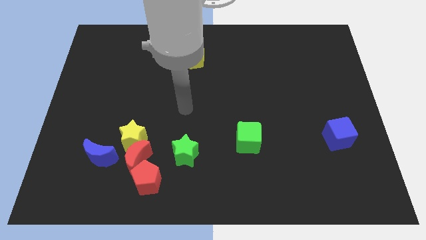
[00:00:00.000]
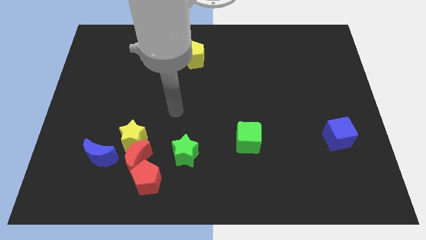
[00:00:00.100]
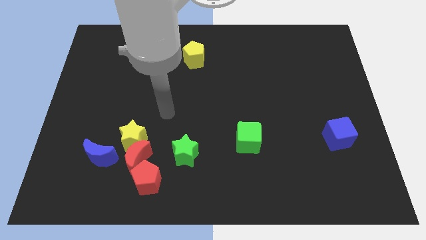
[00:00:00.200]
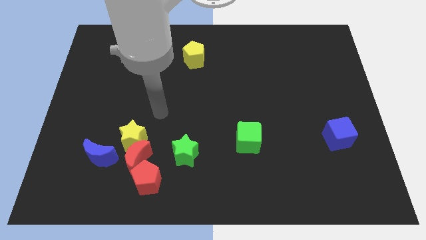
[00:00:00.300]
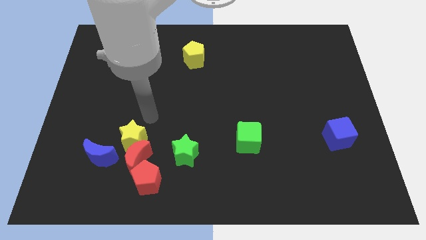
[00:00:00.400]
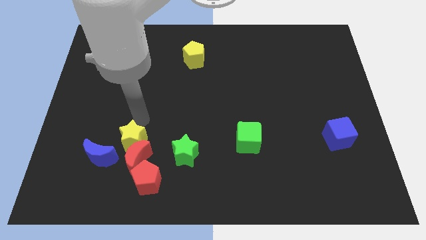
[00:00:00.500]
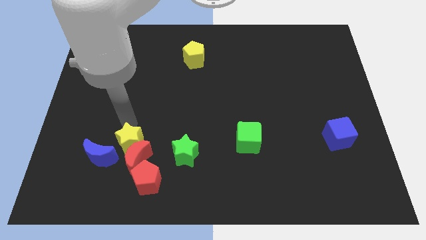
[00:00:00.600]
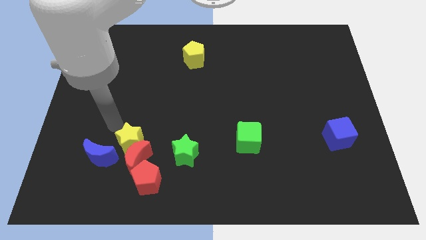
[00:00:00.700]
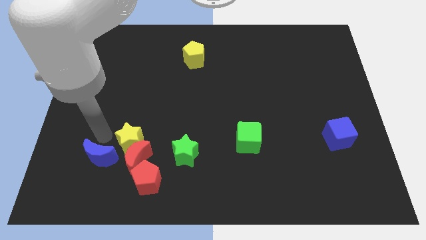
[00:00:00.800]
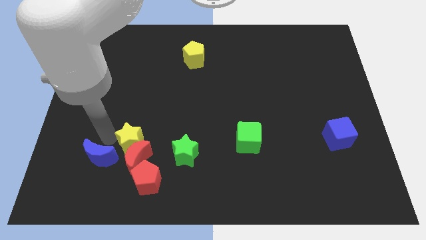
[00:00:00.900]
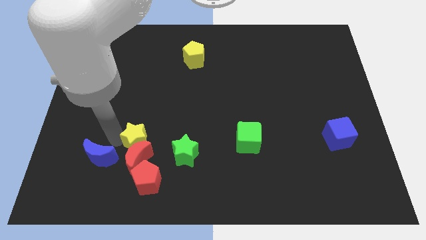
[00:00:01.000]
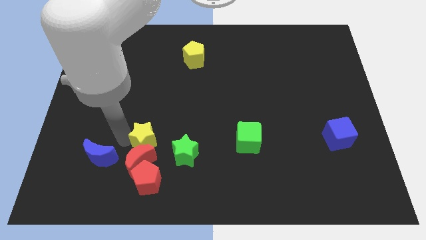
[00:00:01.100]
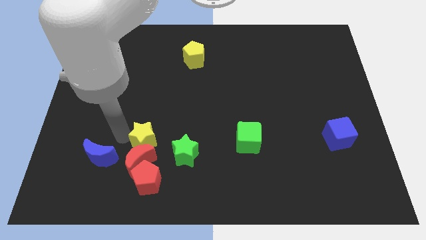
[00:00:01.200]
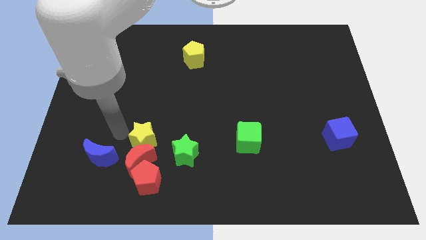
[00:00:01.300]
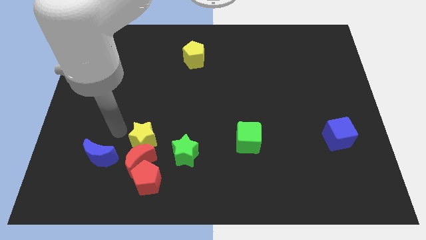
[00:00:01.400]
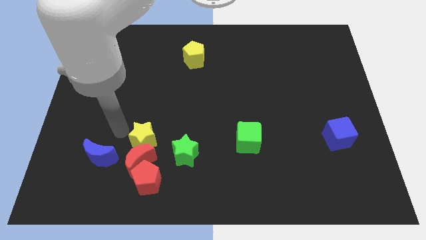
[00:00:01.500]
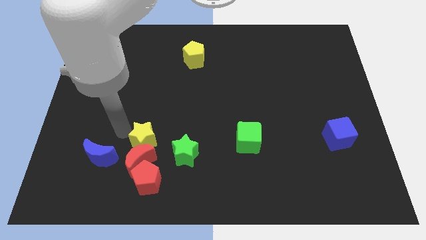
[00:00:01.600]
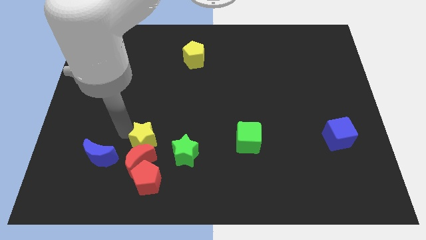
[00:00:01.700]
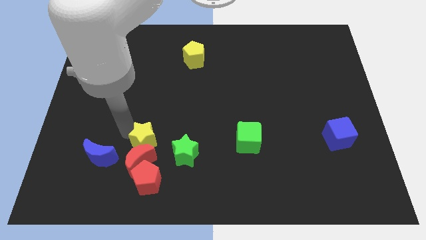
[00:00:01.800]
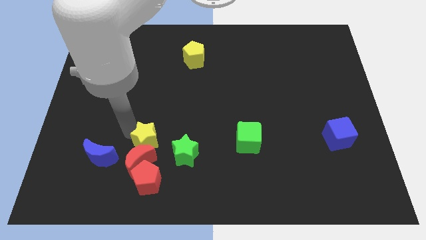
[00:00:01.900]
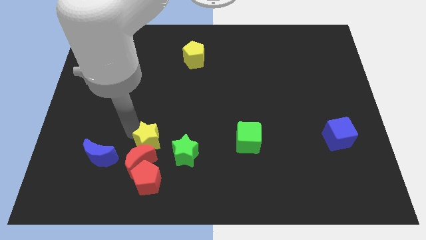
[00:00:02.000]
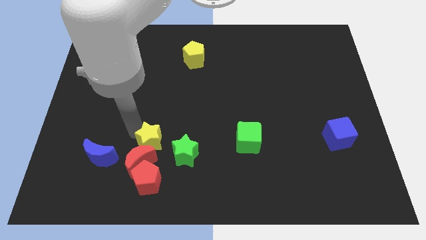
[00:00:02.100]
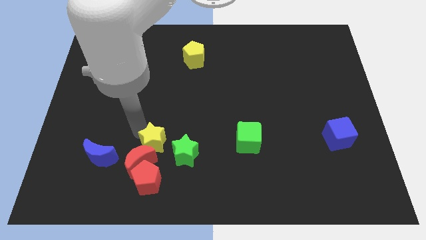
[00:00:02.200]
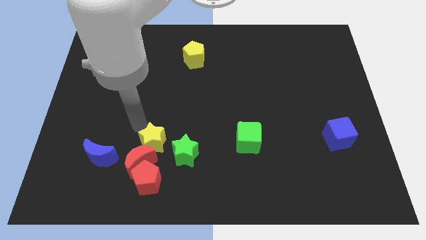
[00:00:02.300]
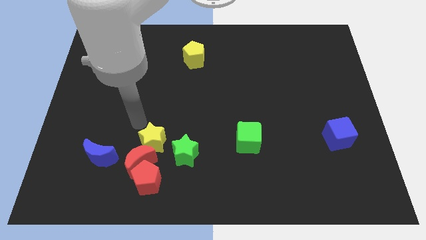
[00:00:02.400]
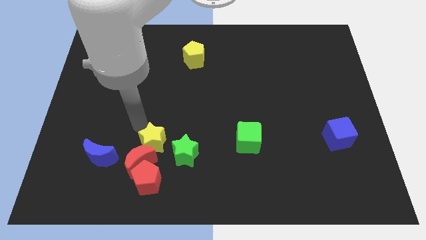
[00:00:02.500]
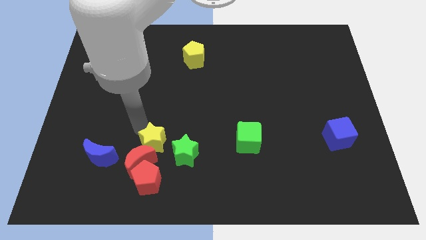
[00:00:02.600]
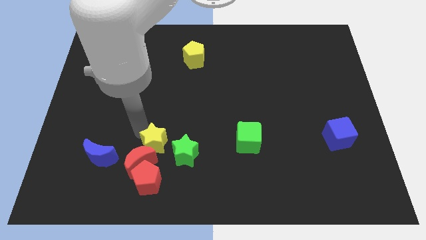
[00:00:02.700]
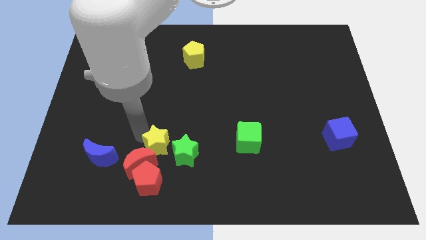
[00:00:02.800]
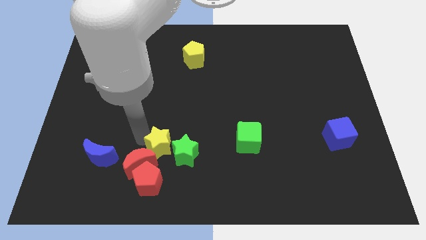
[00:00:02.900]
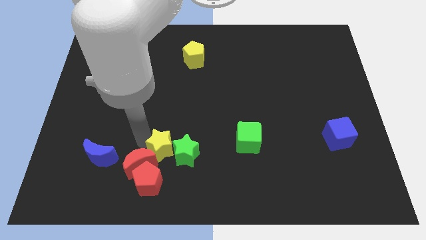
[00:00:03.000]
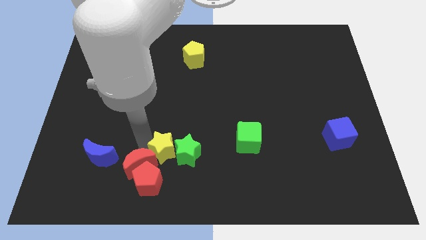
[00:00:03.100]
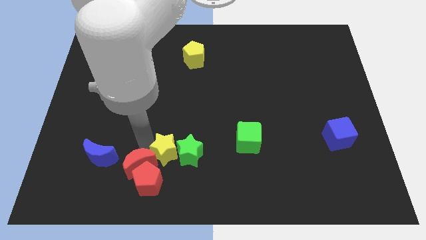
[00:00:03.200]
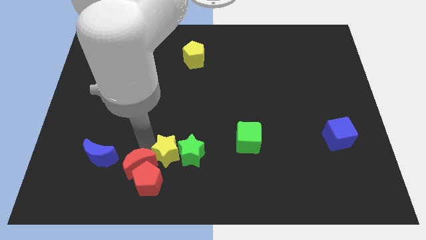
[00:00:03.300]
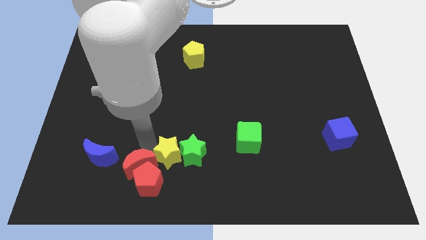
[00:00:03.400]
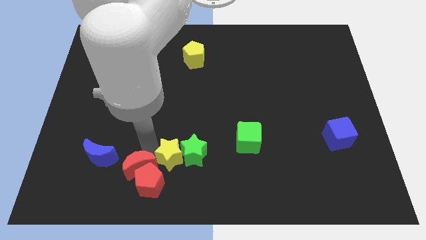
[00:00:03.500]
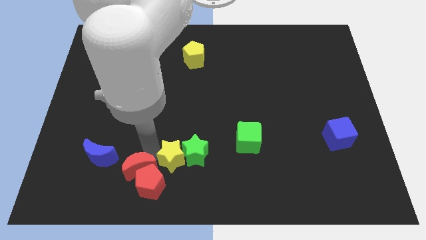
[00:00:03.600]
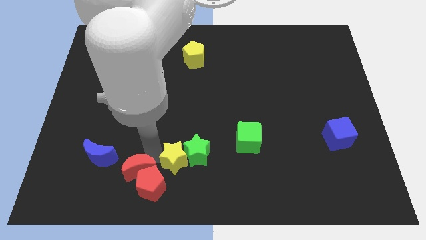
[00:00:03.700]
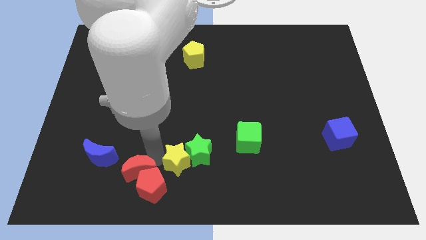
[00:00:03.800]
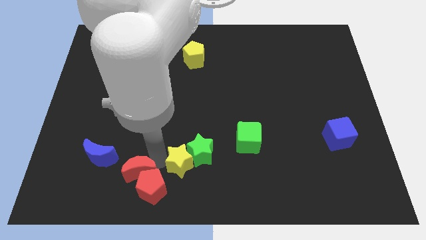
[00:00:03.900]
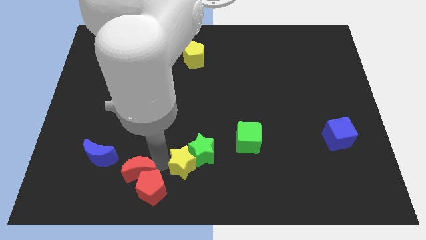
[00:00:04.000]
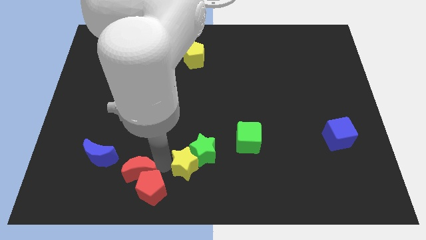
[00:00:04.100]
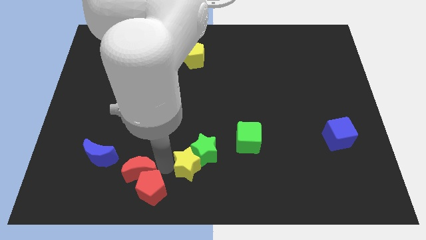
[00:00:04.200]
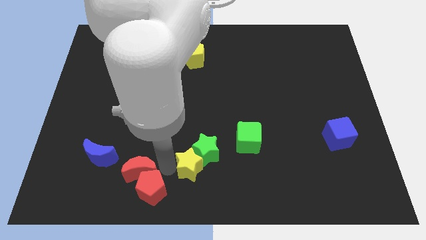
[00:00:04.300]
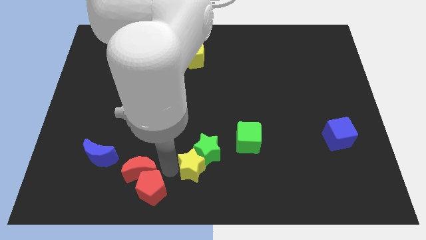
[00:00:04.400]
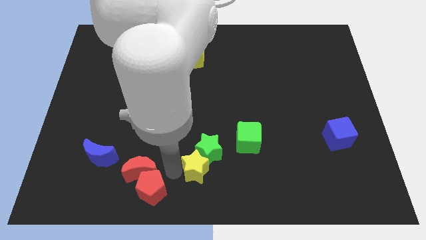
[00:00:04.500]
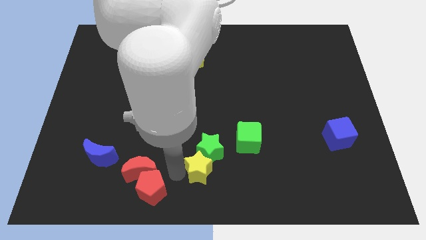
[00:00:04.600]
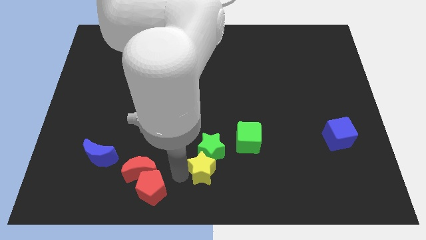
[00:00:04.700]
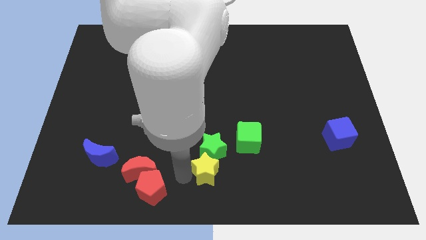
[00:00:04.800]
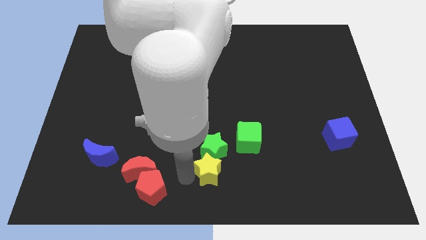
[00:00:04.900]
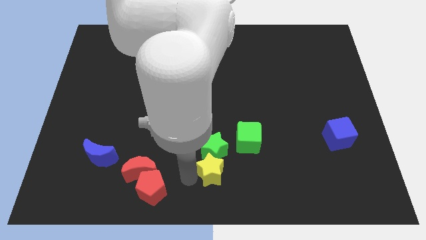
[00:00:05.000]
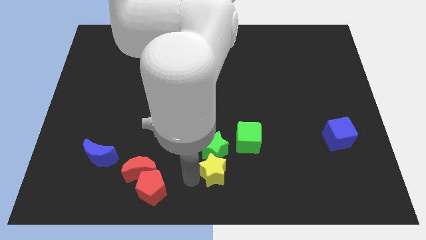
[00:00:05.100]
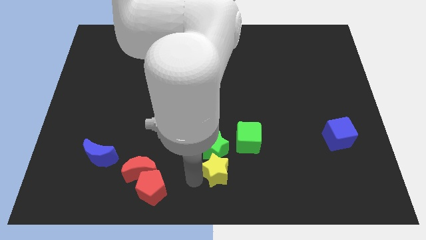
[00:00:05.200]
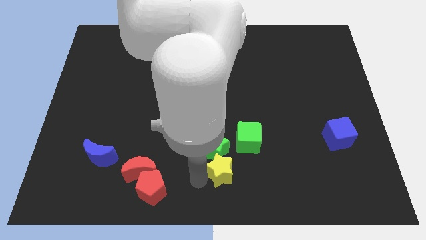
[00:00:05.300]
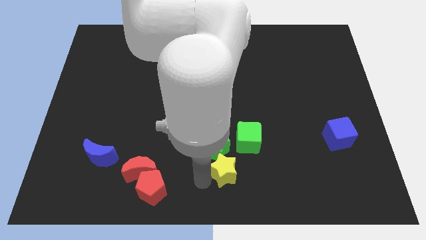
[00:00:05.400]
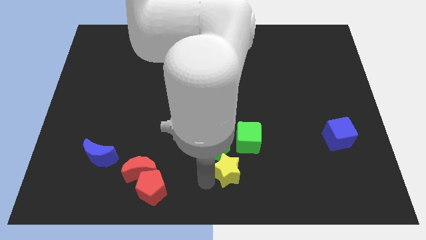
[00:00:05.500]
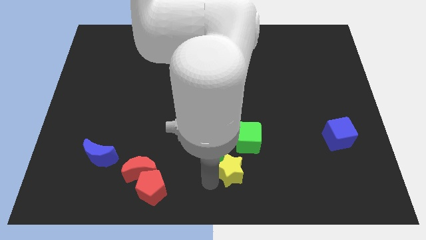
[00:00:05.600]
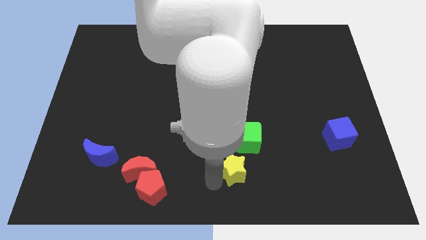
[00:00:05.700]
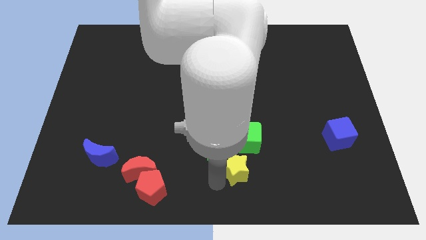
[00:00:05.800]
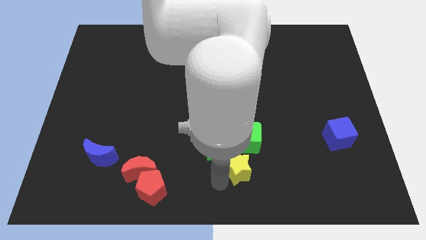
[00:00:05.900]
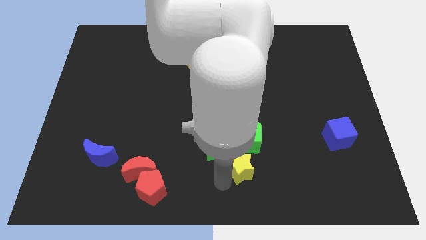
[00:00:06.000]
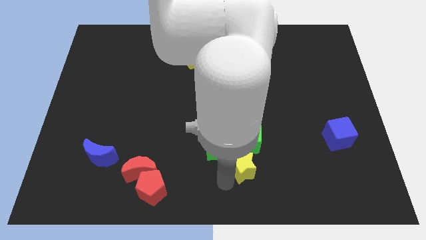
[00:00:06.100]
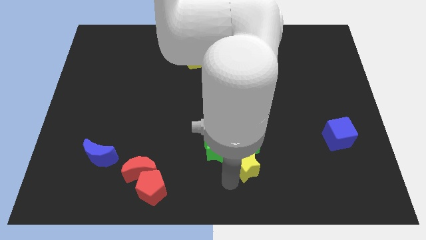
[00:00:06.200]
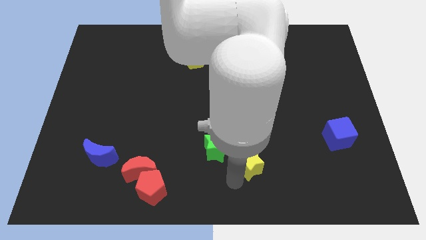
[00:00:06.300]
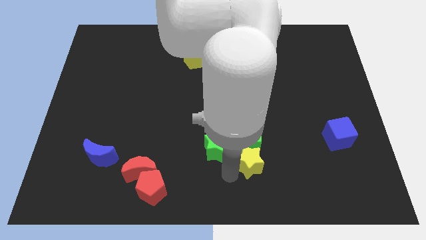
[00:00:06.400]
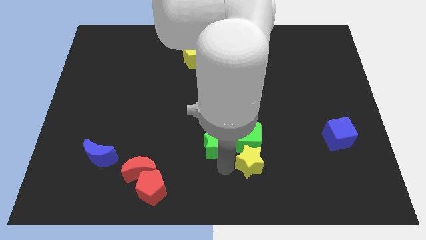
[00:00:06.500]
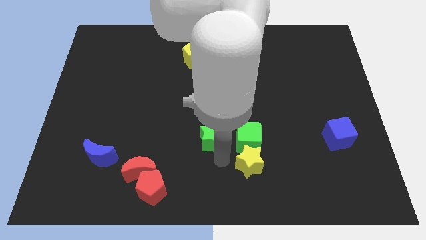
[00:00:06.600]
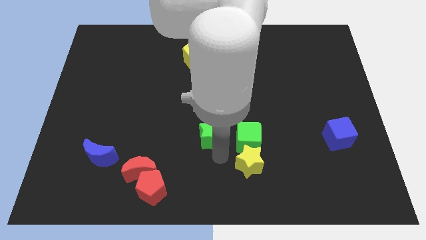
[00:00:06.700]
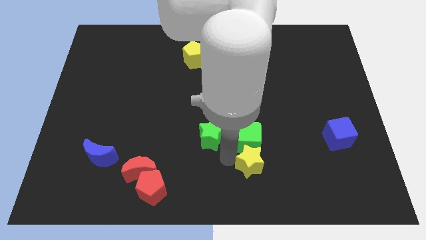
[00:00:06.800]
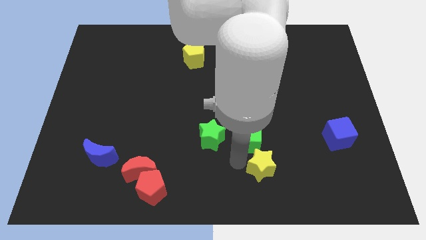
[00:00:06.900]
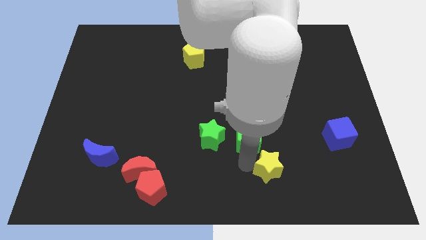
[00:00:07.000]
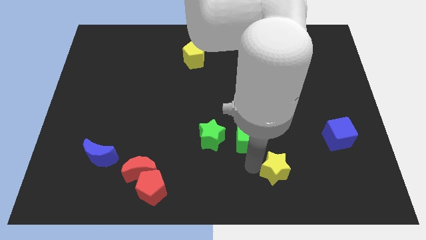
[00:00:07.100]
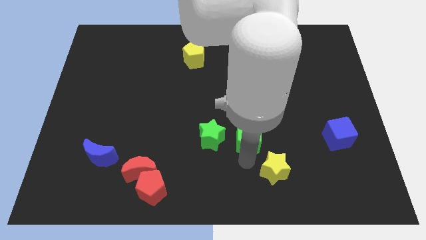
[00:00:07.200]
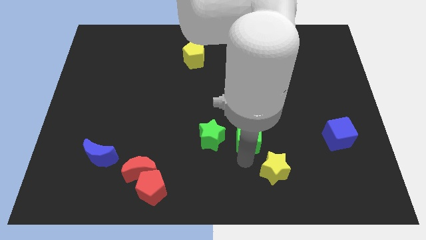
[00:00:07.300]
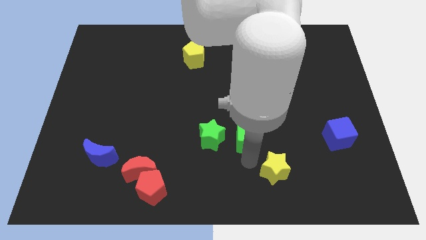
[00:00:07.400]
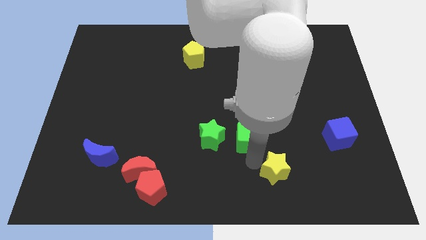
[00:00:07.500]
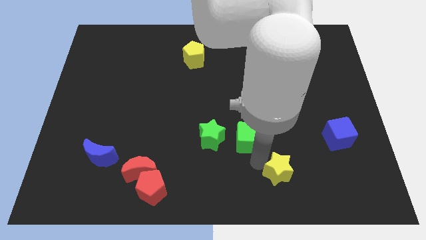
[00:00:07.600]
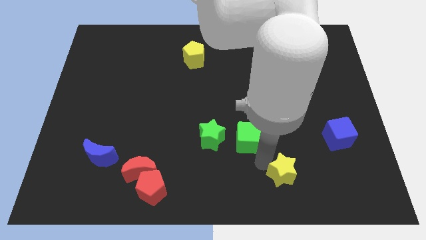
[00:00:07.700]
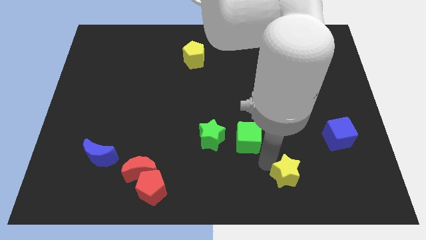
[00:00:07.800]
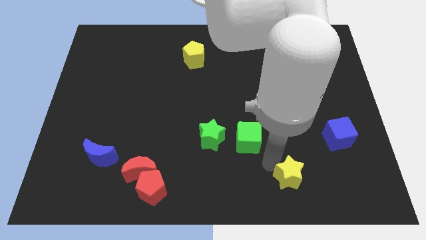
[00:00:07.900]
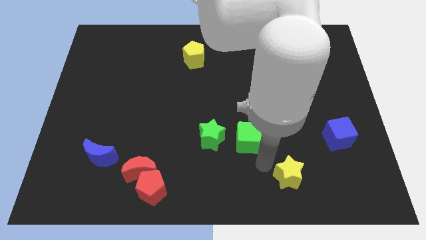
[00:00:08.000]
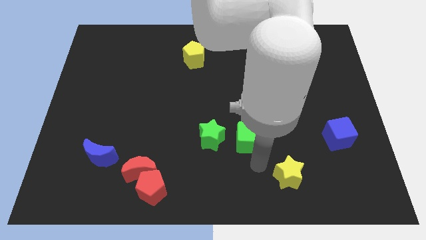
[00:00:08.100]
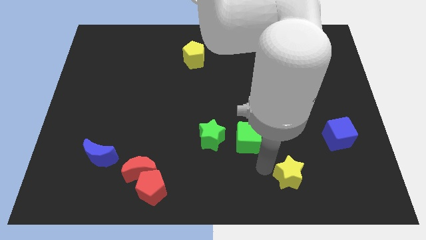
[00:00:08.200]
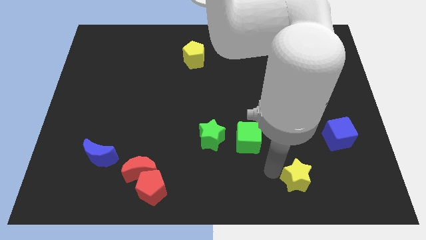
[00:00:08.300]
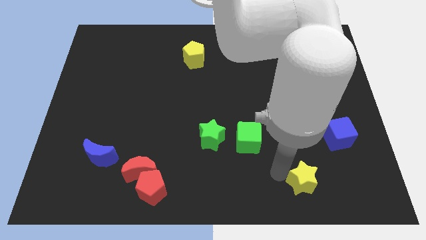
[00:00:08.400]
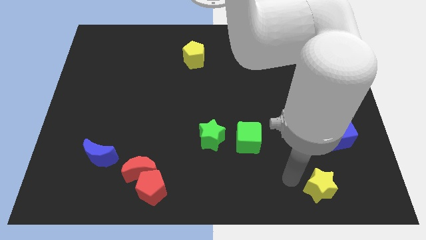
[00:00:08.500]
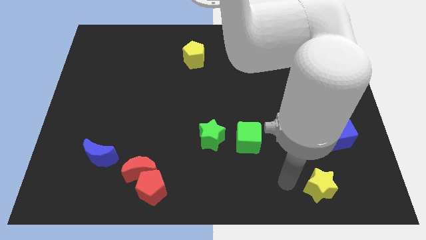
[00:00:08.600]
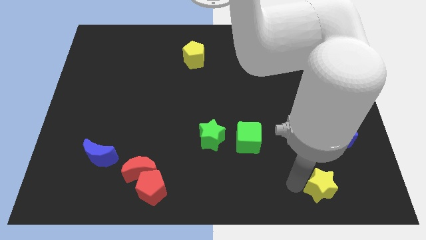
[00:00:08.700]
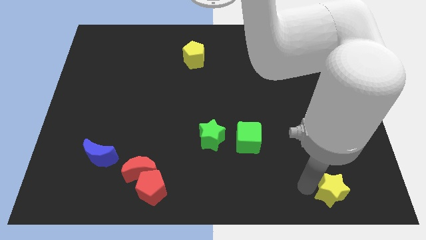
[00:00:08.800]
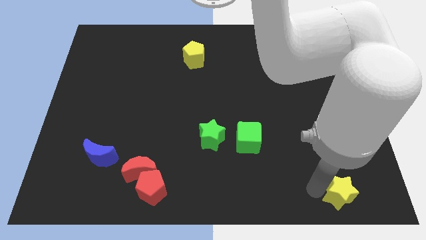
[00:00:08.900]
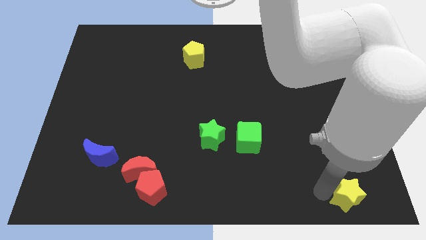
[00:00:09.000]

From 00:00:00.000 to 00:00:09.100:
move the yellow star to the bottom right
